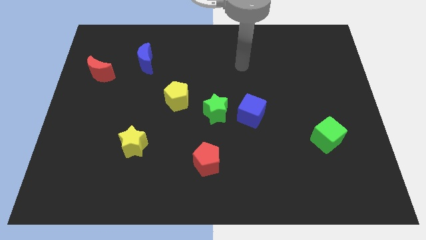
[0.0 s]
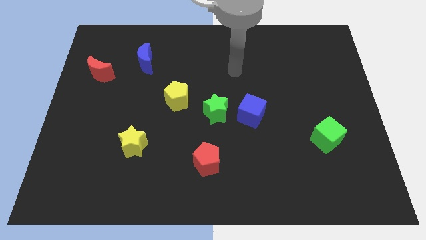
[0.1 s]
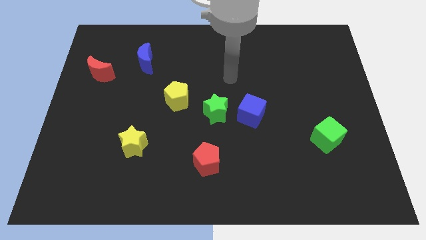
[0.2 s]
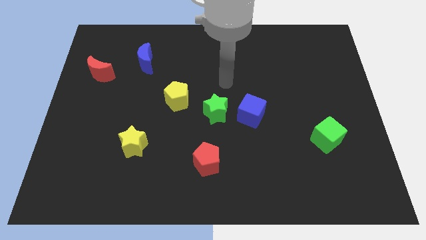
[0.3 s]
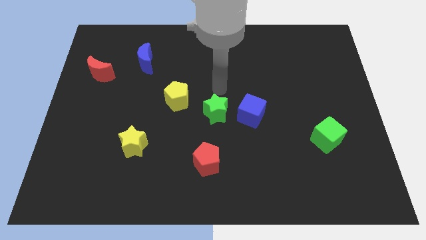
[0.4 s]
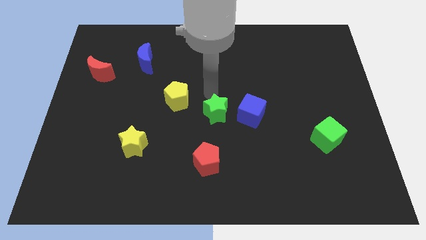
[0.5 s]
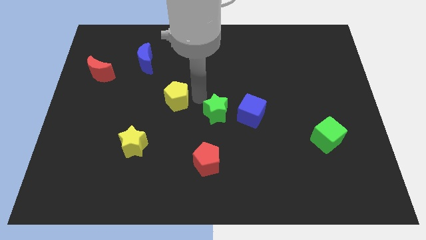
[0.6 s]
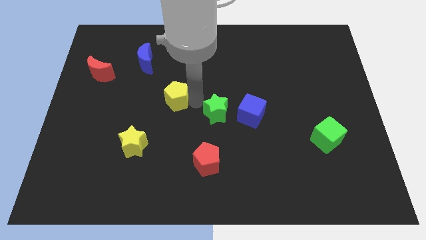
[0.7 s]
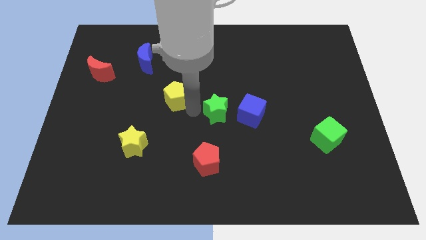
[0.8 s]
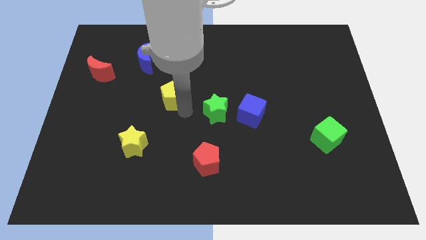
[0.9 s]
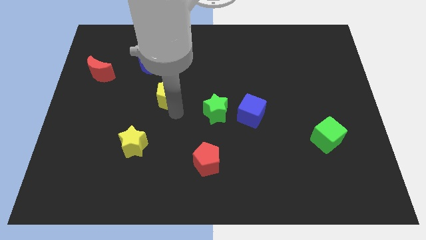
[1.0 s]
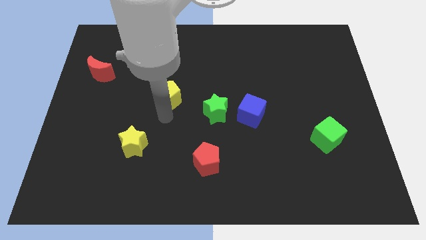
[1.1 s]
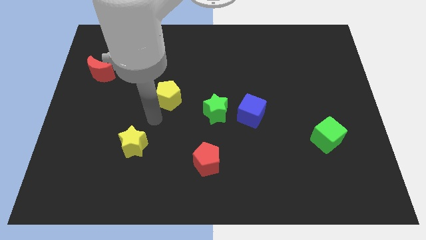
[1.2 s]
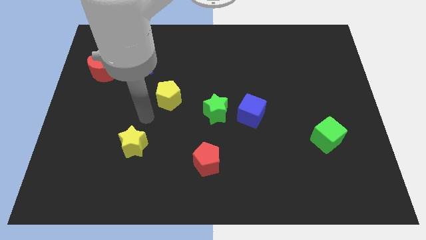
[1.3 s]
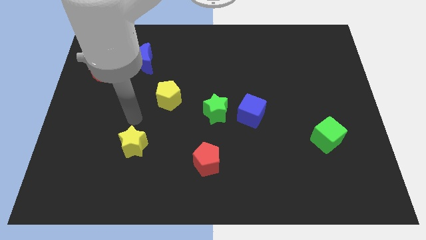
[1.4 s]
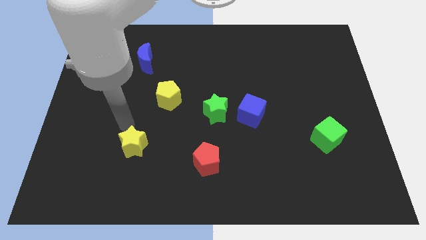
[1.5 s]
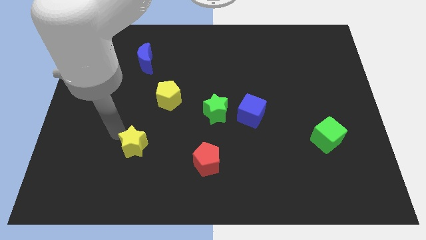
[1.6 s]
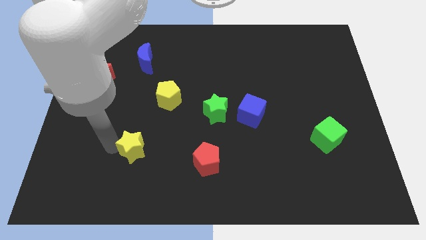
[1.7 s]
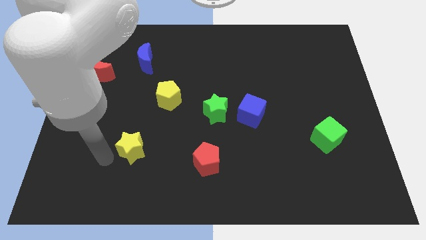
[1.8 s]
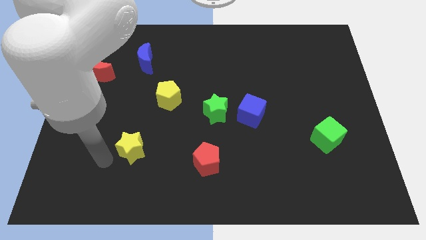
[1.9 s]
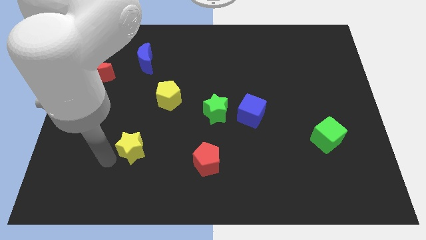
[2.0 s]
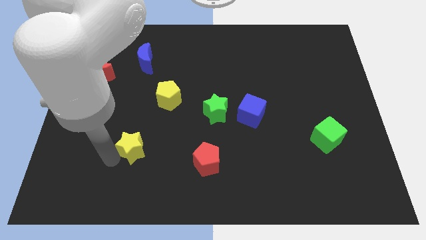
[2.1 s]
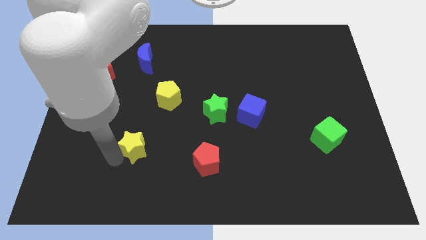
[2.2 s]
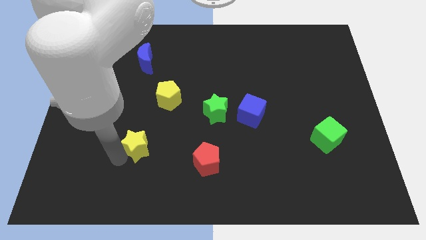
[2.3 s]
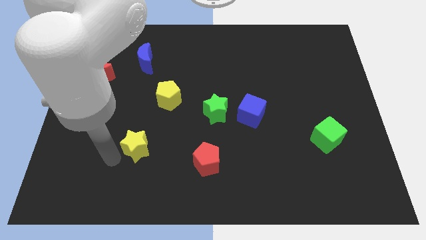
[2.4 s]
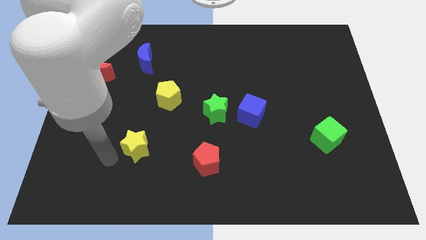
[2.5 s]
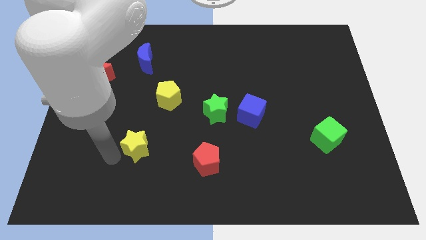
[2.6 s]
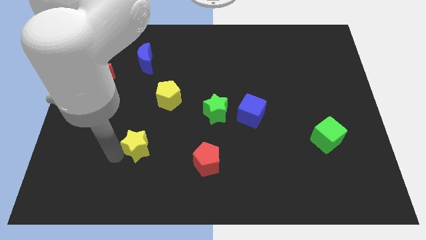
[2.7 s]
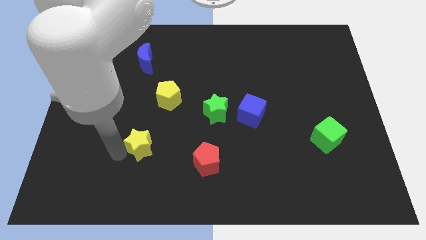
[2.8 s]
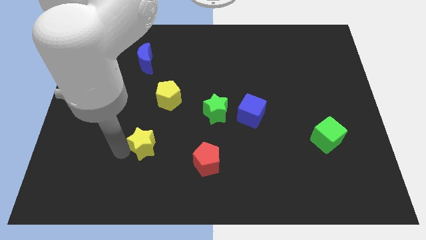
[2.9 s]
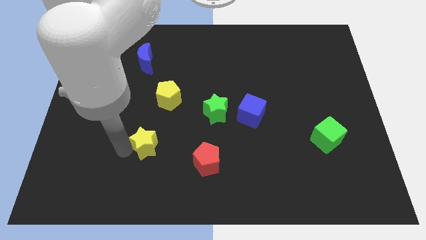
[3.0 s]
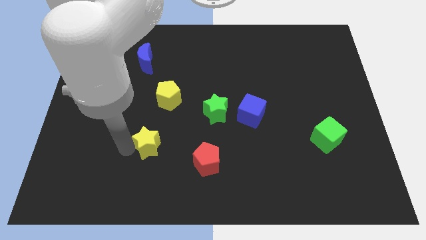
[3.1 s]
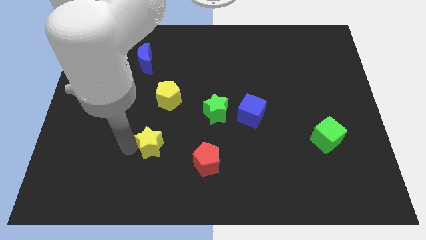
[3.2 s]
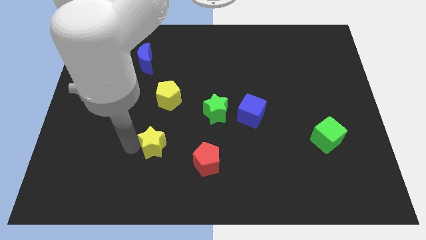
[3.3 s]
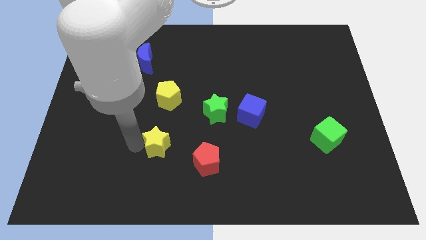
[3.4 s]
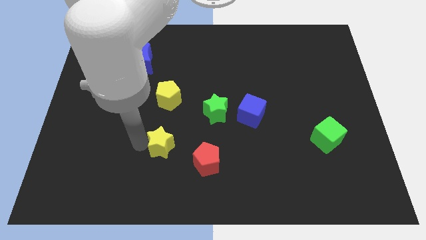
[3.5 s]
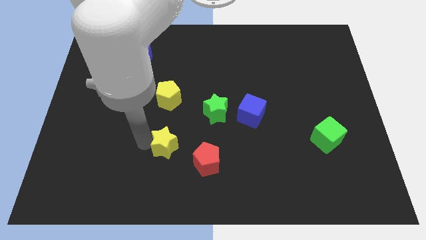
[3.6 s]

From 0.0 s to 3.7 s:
move the yellow star a little to the right

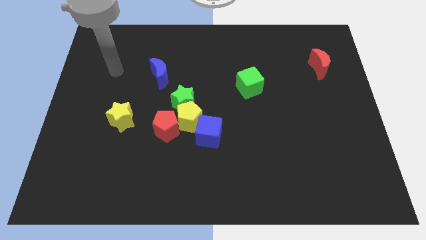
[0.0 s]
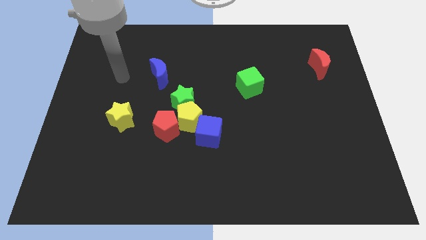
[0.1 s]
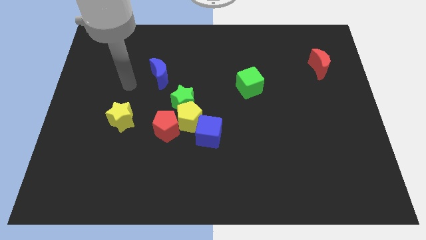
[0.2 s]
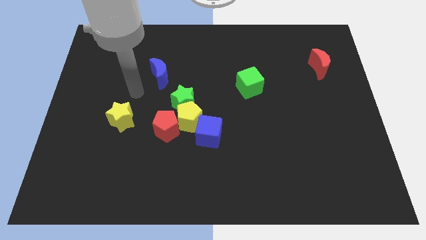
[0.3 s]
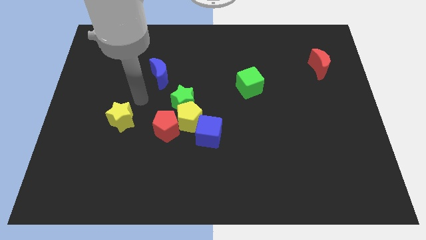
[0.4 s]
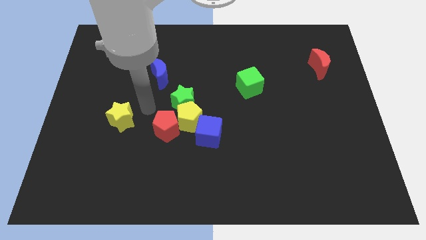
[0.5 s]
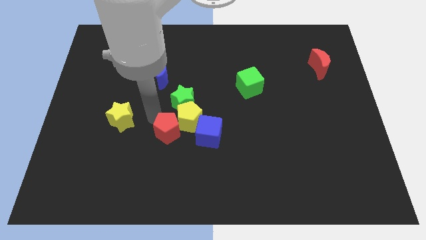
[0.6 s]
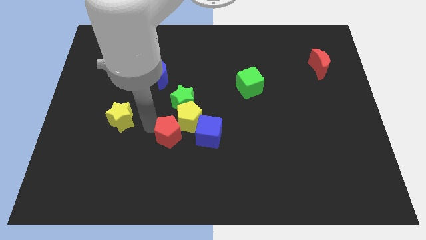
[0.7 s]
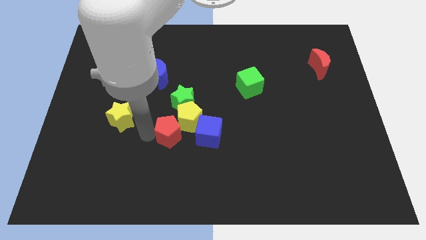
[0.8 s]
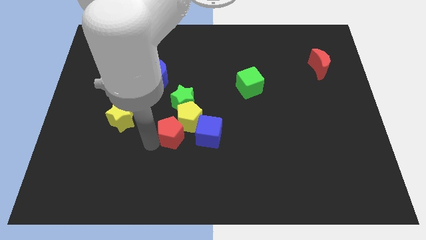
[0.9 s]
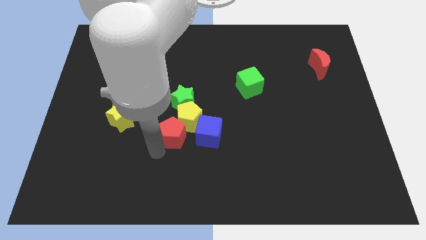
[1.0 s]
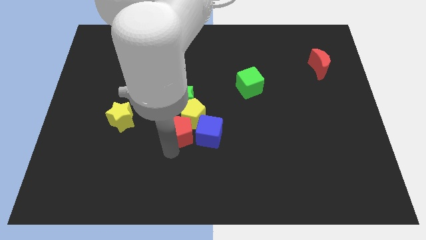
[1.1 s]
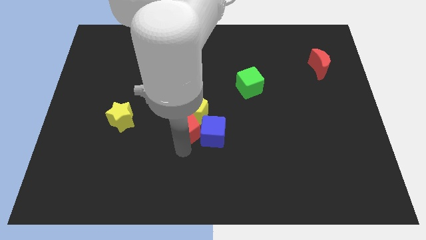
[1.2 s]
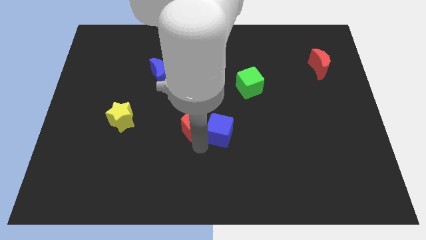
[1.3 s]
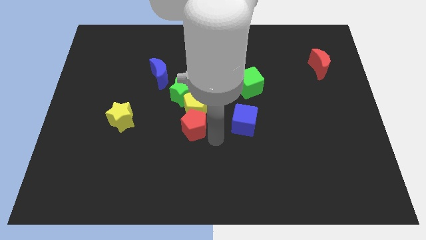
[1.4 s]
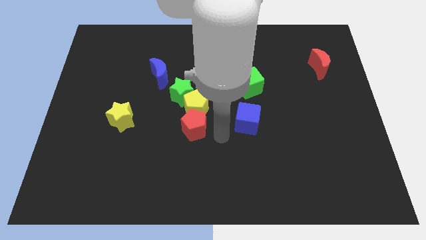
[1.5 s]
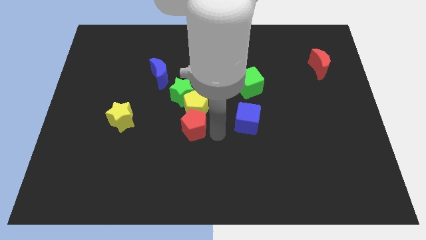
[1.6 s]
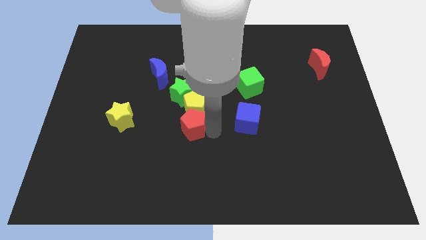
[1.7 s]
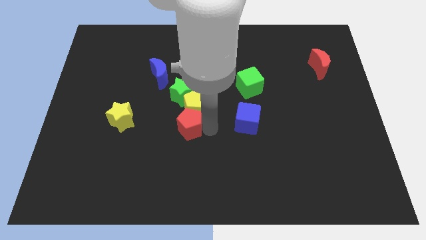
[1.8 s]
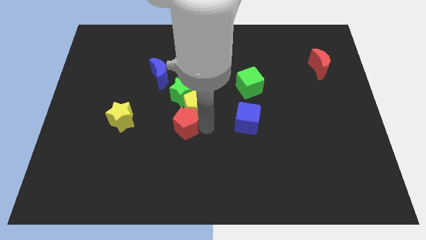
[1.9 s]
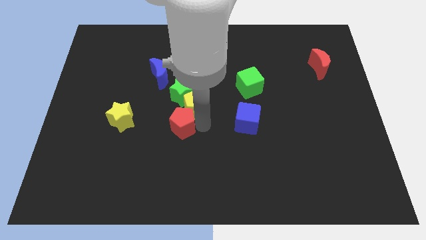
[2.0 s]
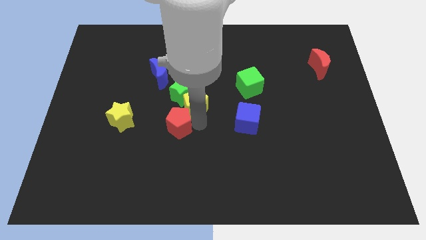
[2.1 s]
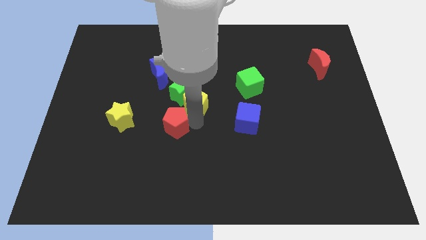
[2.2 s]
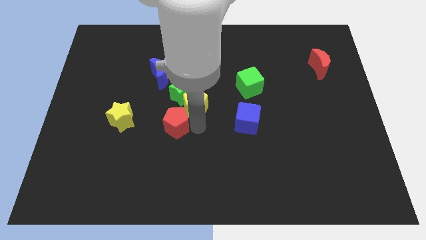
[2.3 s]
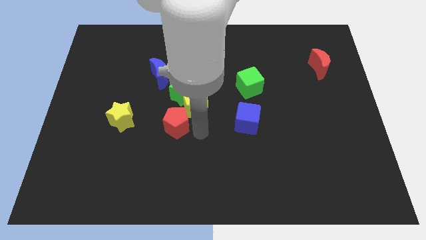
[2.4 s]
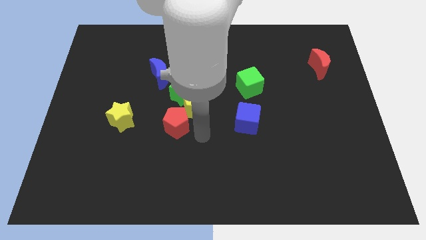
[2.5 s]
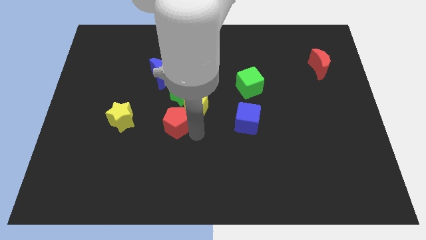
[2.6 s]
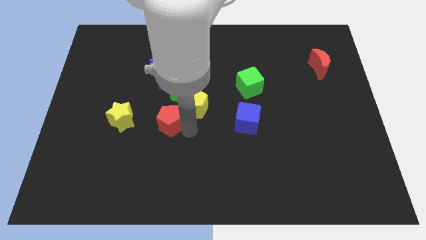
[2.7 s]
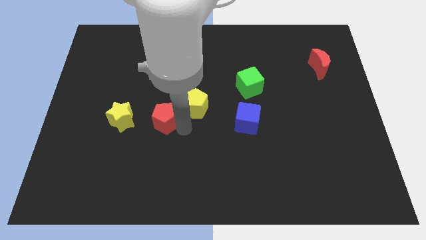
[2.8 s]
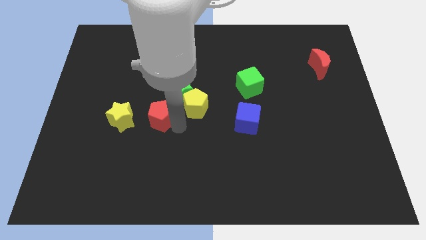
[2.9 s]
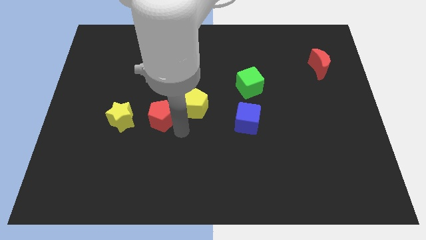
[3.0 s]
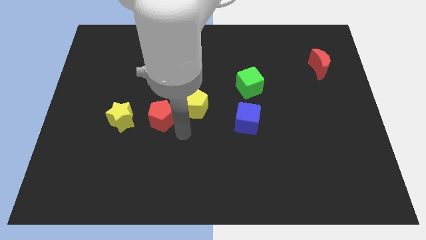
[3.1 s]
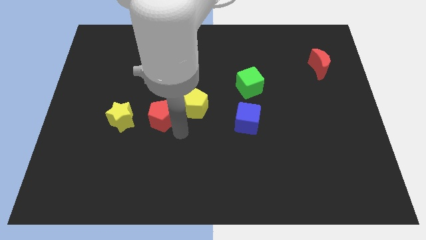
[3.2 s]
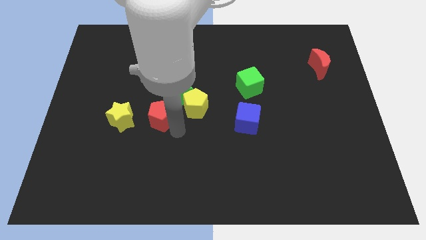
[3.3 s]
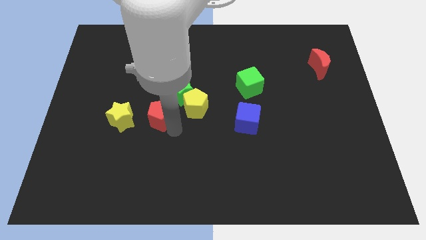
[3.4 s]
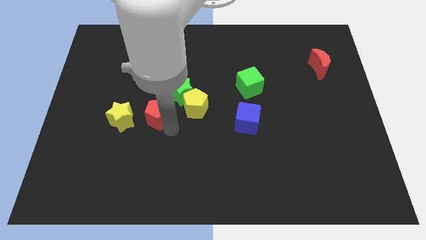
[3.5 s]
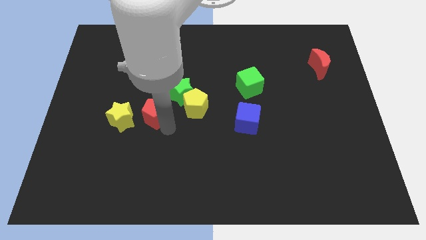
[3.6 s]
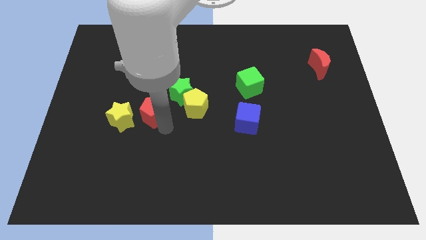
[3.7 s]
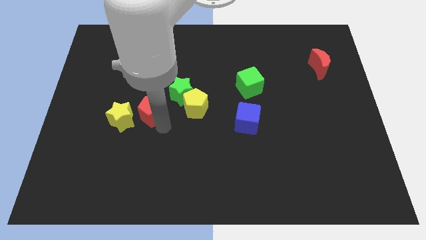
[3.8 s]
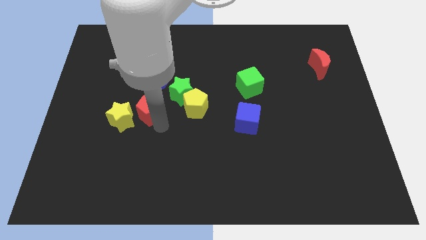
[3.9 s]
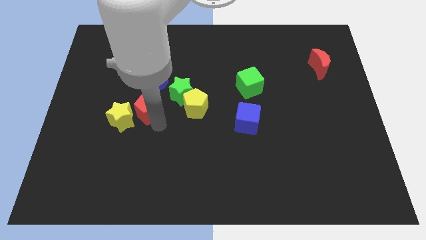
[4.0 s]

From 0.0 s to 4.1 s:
slide the red pentagon a little bit diagonally upwards and left
